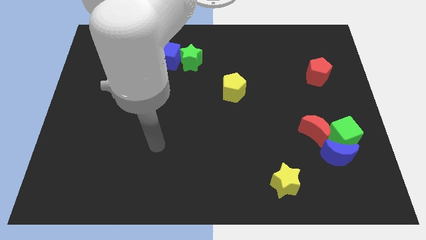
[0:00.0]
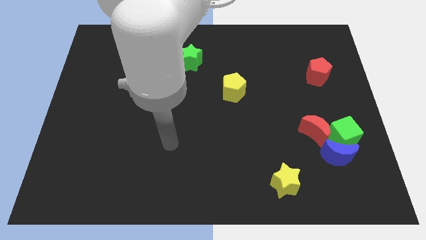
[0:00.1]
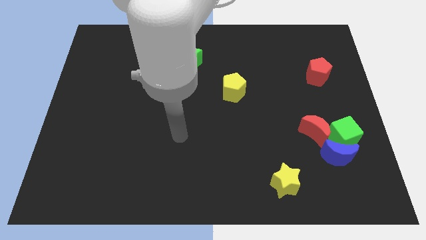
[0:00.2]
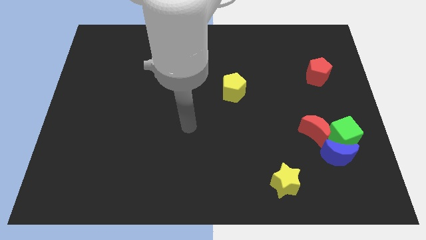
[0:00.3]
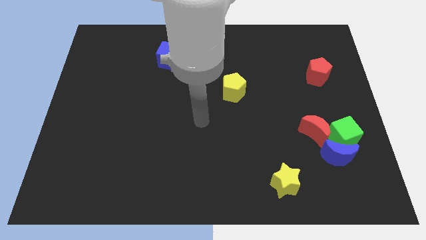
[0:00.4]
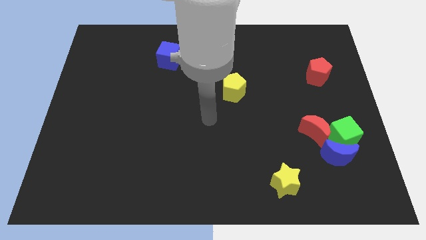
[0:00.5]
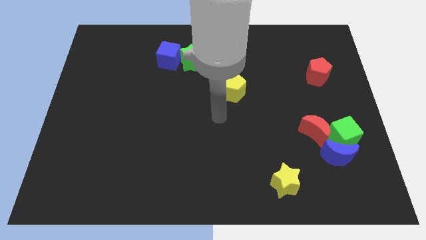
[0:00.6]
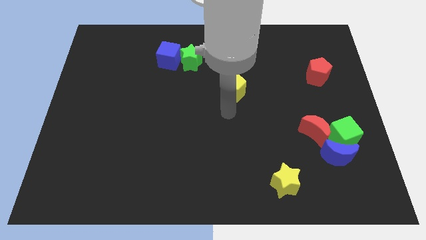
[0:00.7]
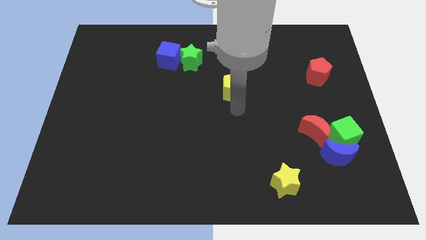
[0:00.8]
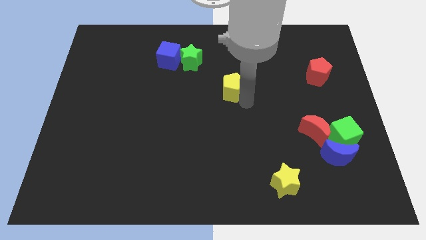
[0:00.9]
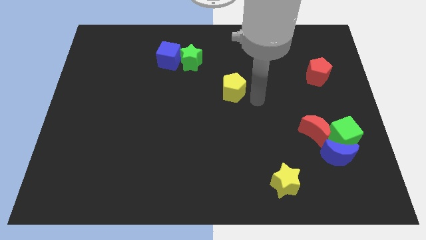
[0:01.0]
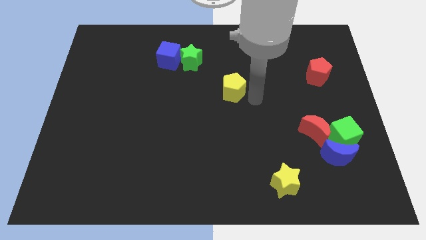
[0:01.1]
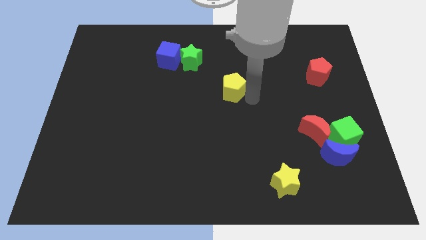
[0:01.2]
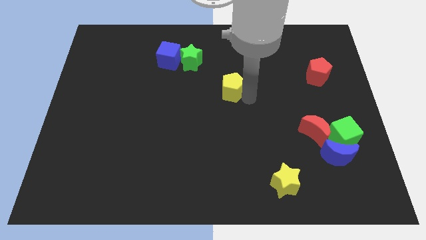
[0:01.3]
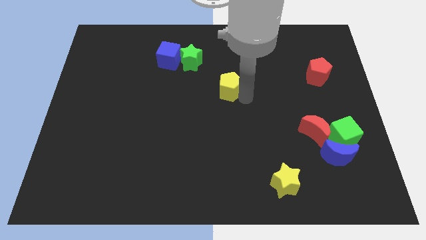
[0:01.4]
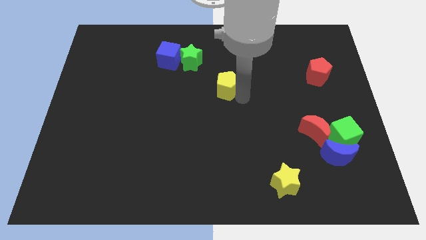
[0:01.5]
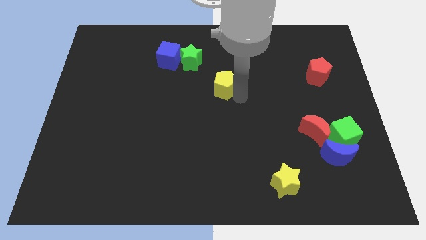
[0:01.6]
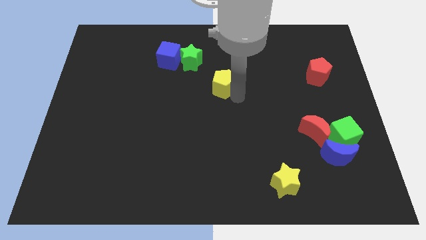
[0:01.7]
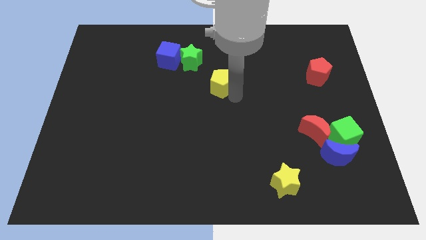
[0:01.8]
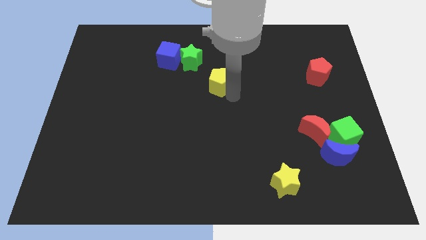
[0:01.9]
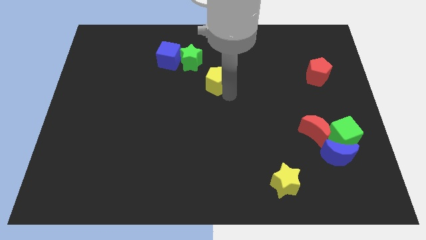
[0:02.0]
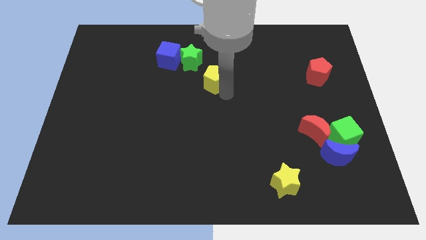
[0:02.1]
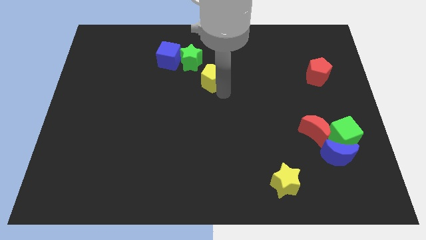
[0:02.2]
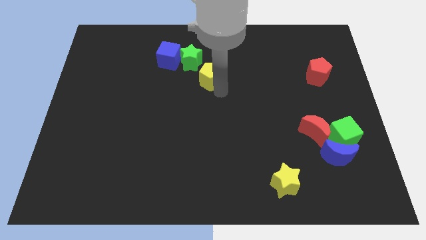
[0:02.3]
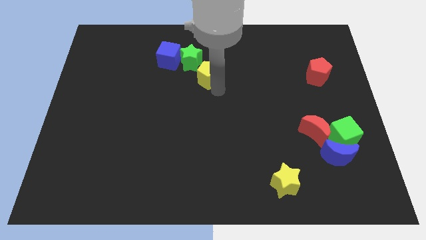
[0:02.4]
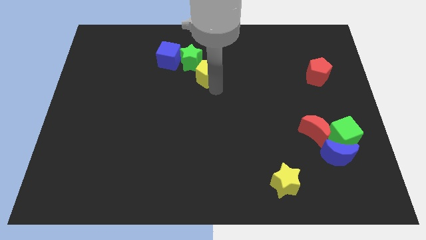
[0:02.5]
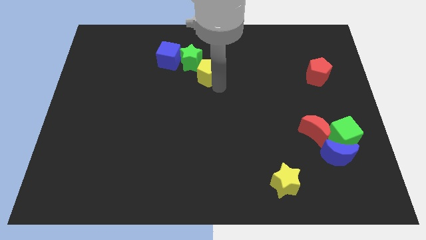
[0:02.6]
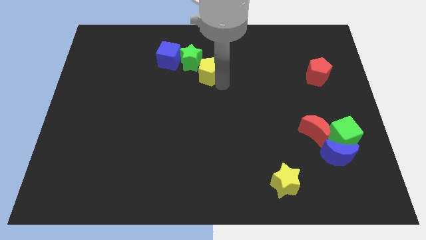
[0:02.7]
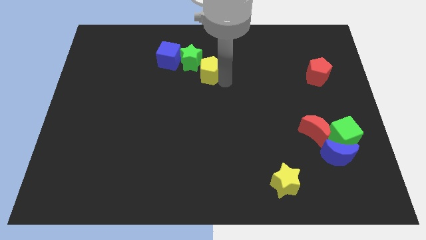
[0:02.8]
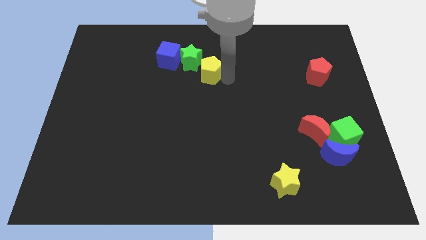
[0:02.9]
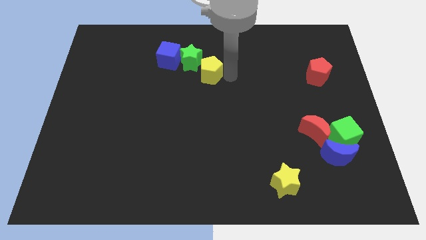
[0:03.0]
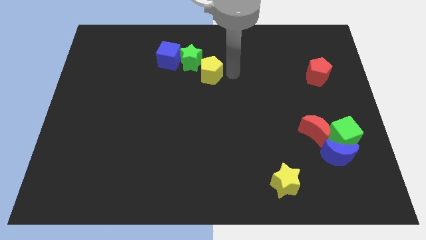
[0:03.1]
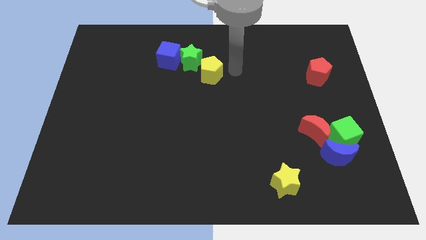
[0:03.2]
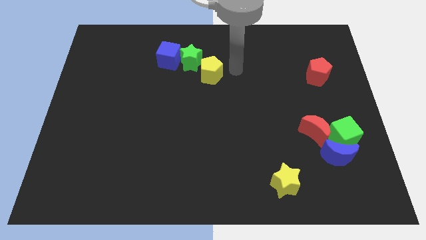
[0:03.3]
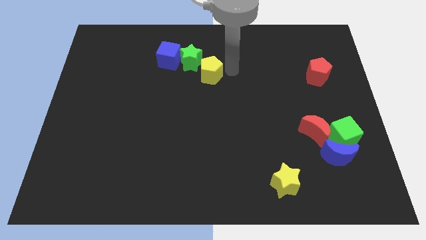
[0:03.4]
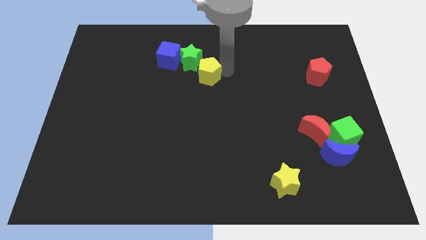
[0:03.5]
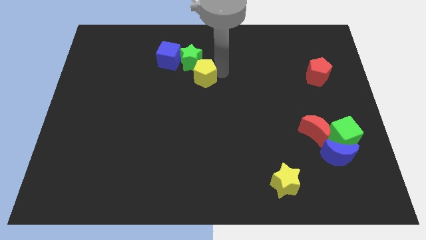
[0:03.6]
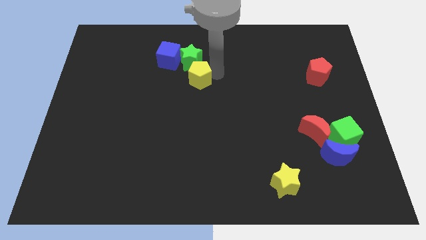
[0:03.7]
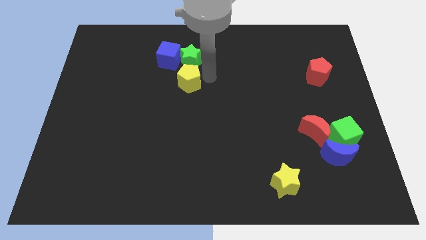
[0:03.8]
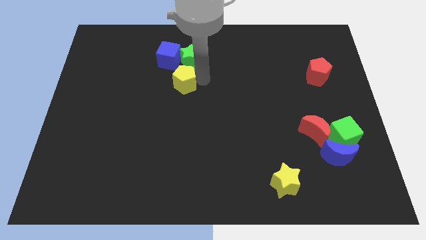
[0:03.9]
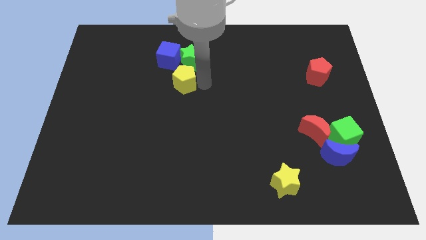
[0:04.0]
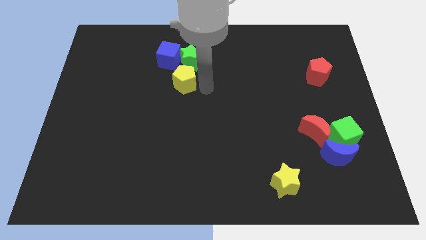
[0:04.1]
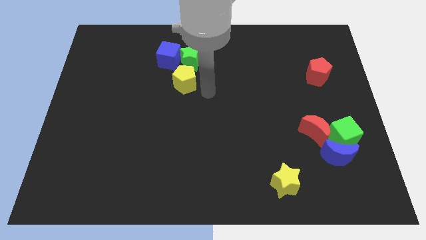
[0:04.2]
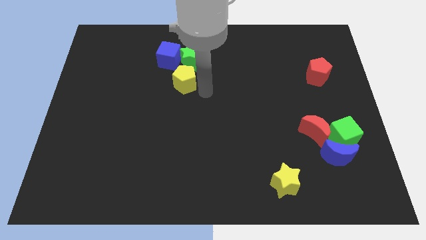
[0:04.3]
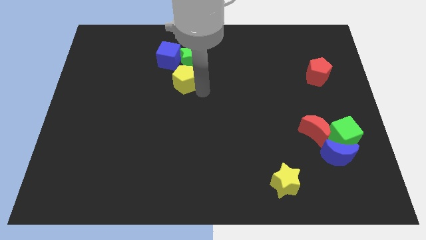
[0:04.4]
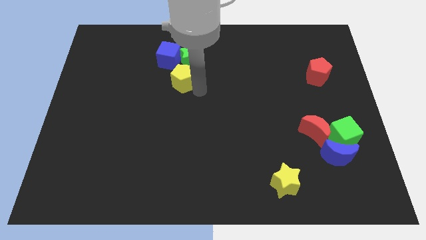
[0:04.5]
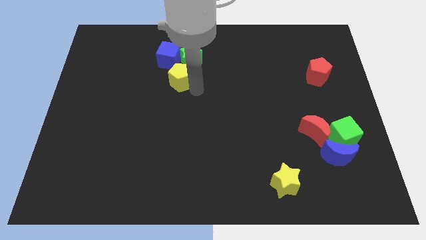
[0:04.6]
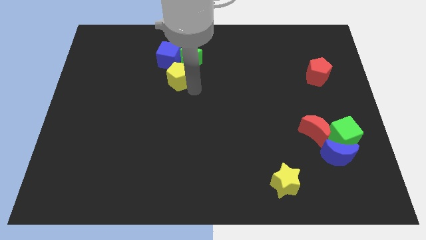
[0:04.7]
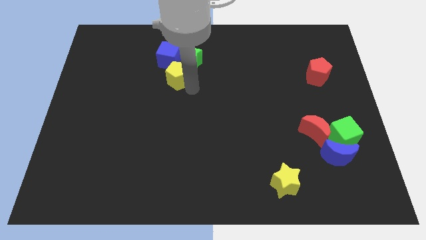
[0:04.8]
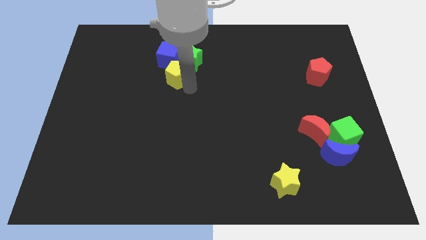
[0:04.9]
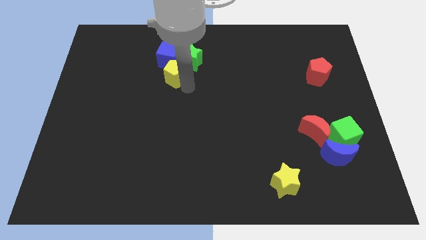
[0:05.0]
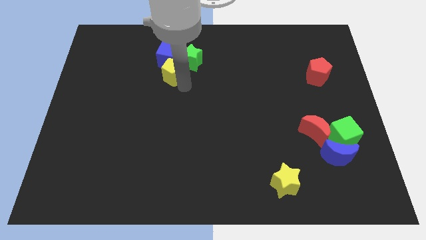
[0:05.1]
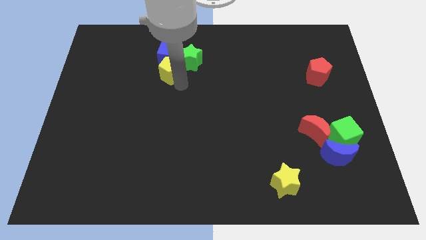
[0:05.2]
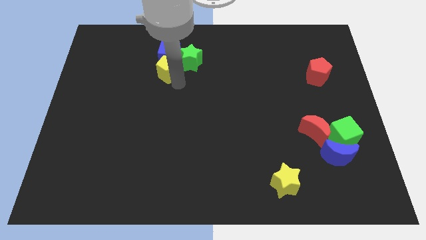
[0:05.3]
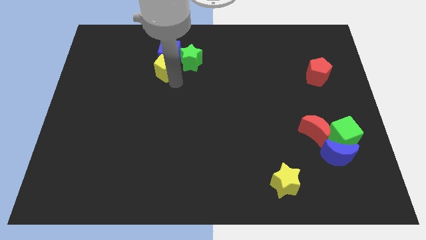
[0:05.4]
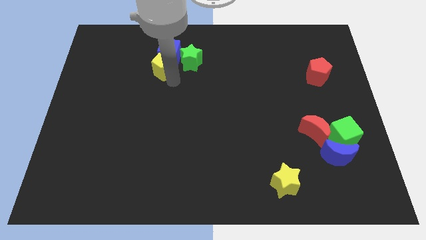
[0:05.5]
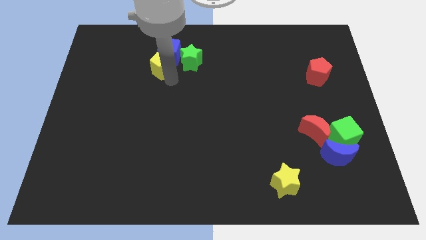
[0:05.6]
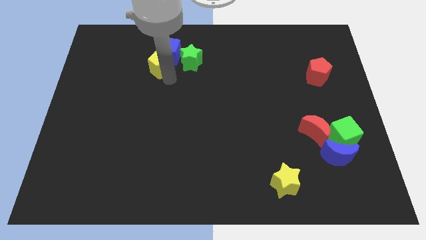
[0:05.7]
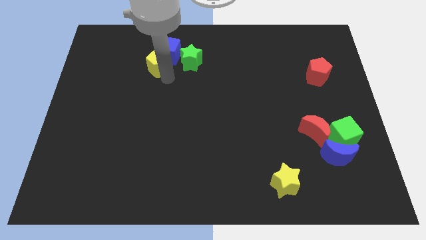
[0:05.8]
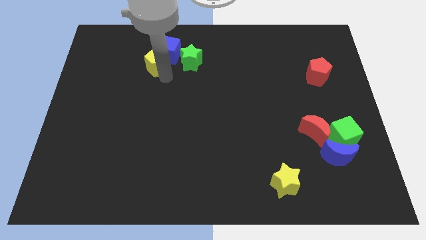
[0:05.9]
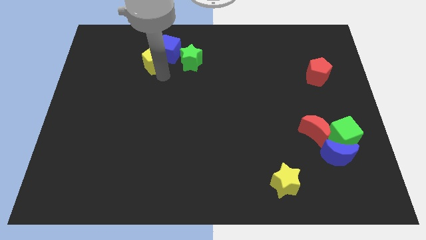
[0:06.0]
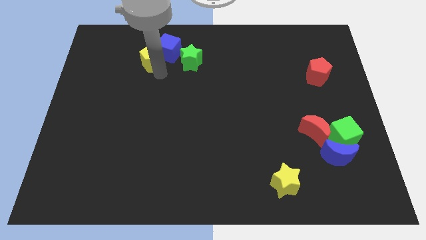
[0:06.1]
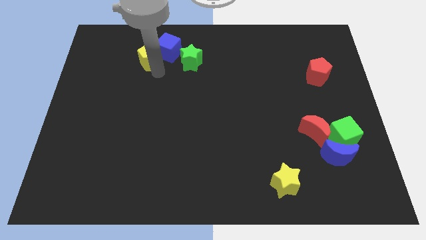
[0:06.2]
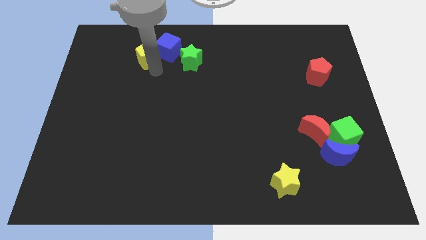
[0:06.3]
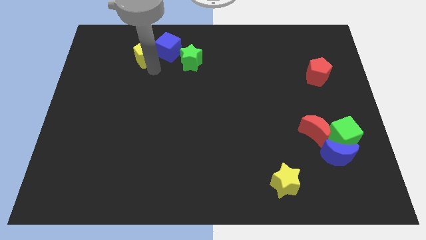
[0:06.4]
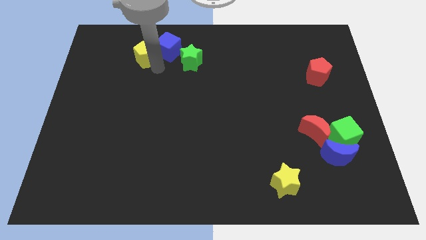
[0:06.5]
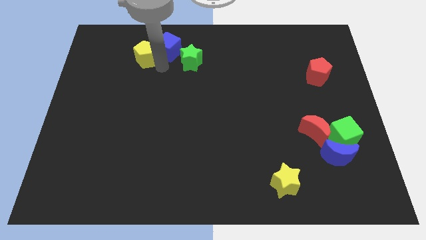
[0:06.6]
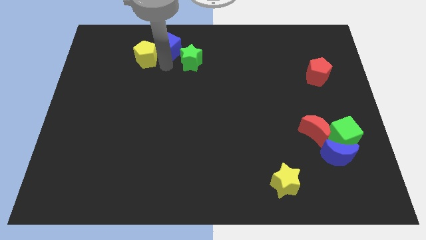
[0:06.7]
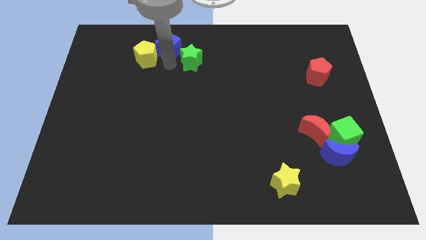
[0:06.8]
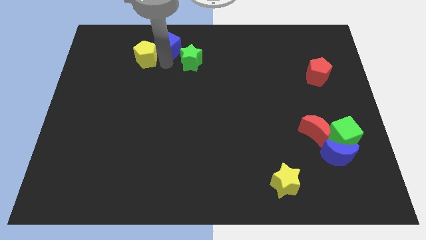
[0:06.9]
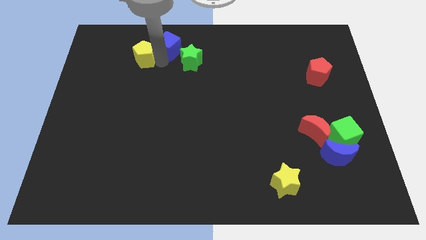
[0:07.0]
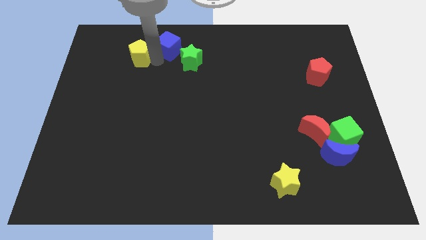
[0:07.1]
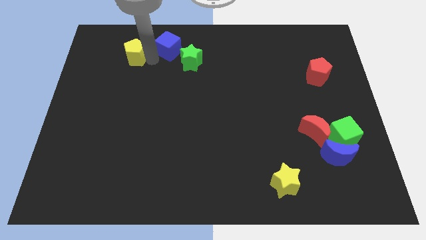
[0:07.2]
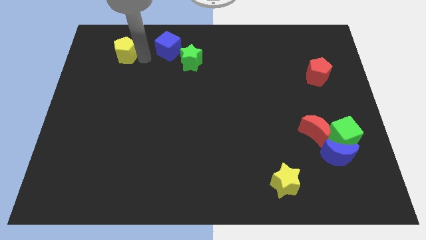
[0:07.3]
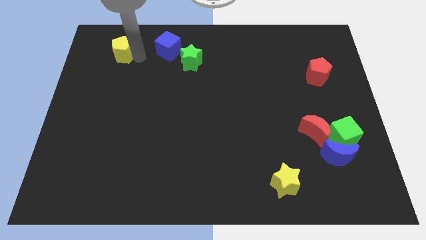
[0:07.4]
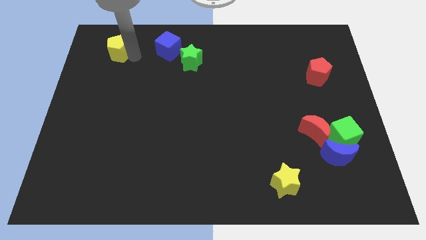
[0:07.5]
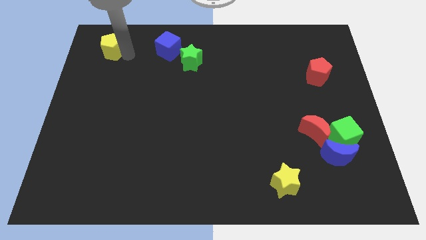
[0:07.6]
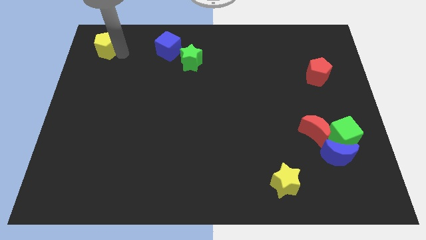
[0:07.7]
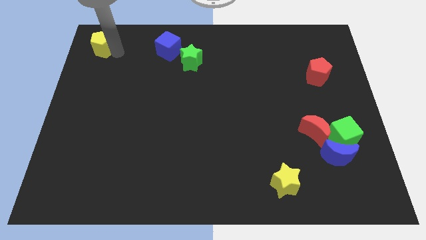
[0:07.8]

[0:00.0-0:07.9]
put the yellow pentagon to the top left corner
